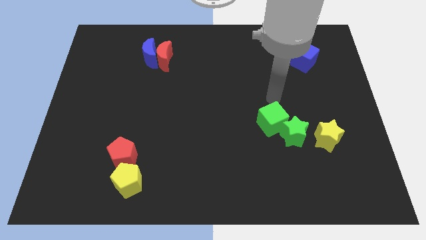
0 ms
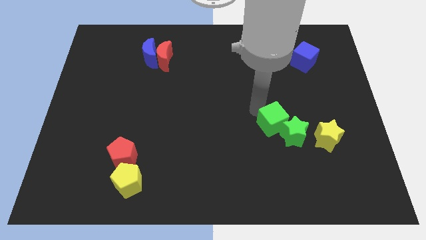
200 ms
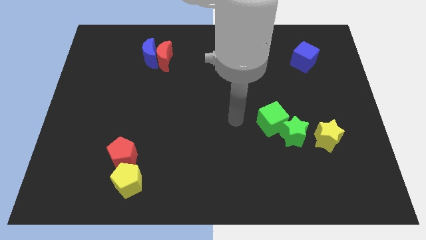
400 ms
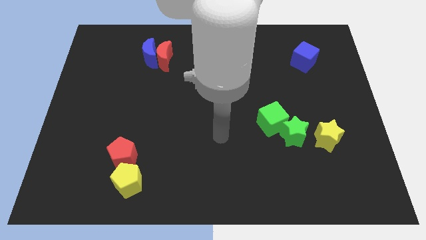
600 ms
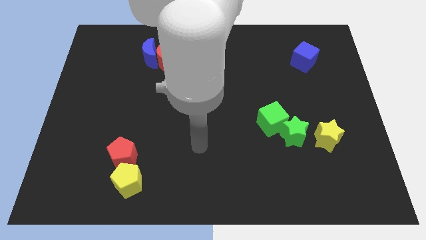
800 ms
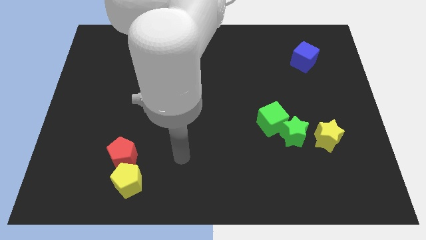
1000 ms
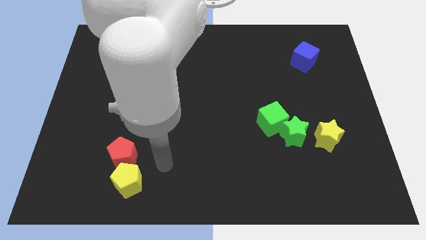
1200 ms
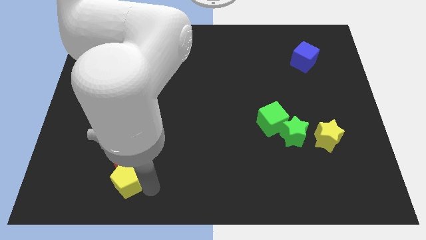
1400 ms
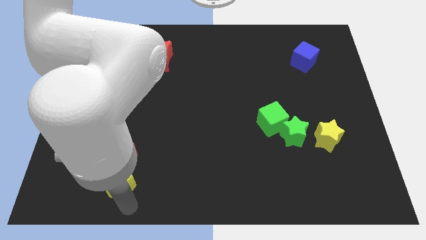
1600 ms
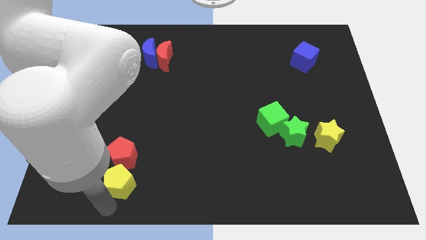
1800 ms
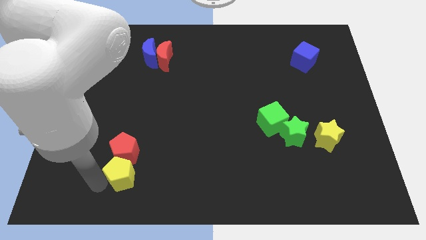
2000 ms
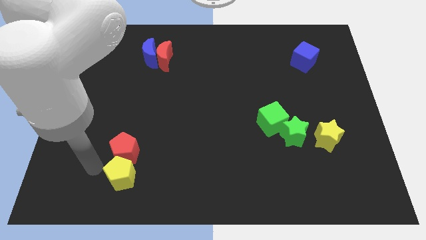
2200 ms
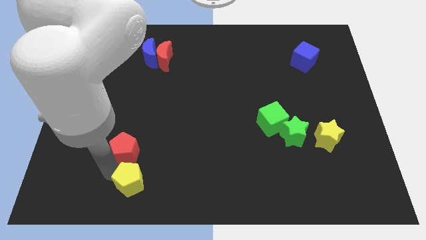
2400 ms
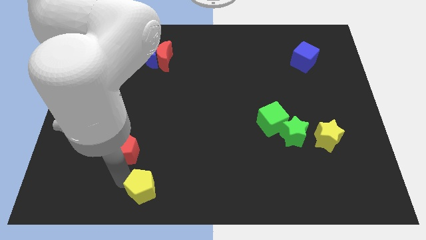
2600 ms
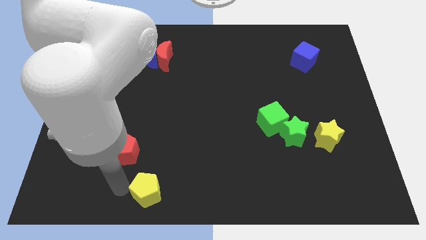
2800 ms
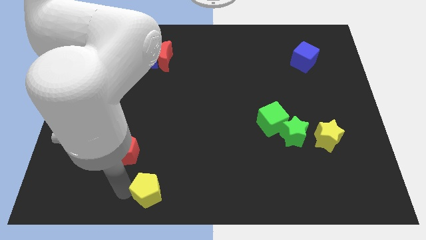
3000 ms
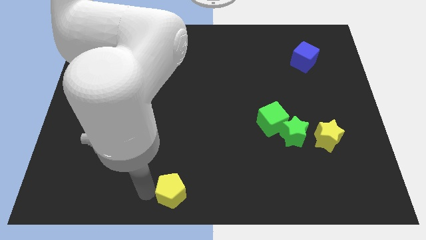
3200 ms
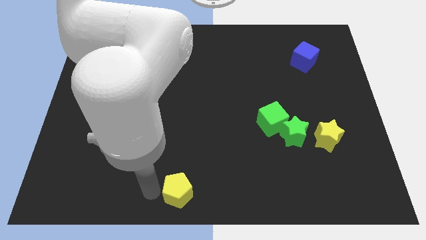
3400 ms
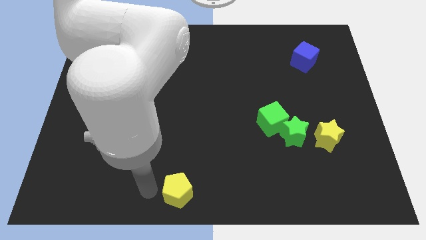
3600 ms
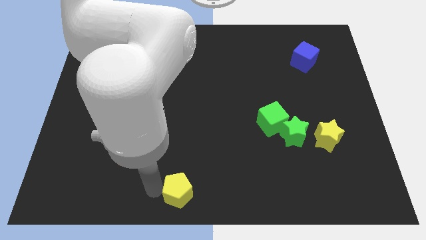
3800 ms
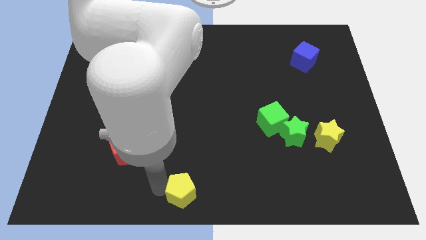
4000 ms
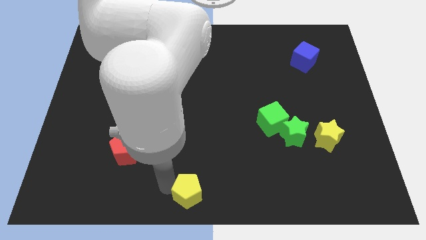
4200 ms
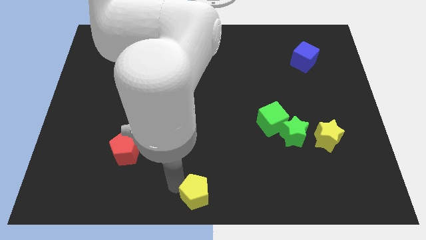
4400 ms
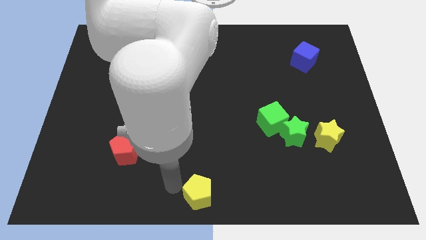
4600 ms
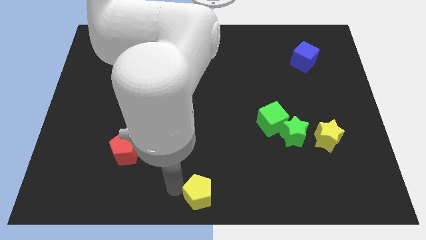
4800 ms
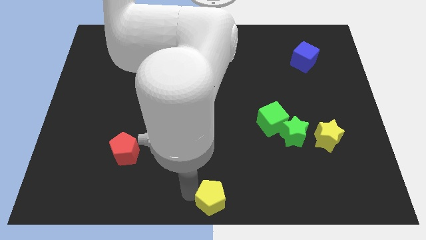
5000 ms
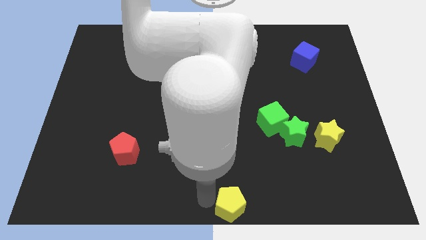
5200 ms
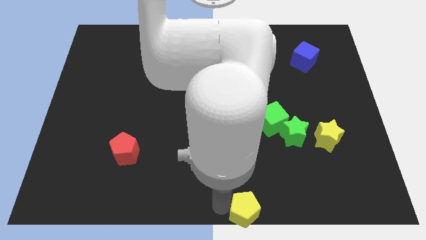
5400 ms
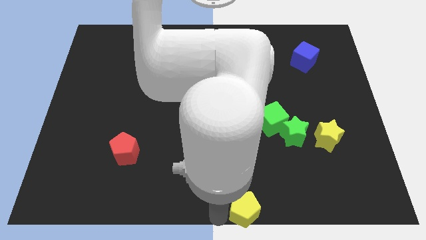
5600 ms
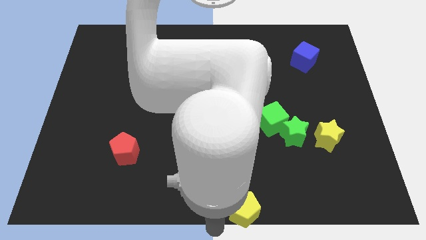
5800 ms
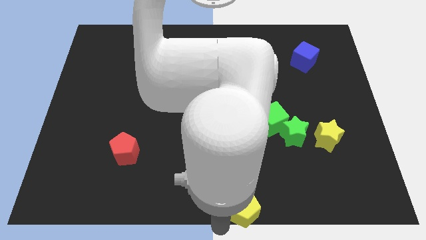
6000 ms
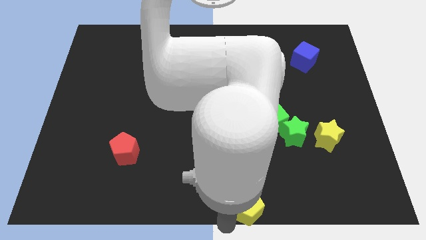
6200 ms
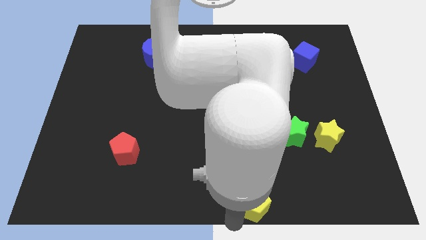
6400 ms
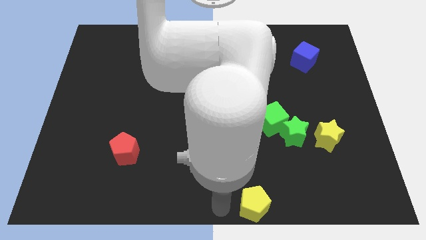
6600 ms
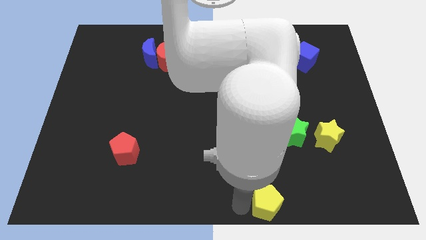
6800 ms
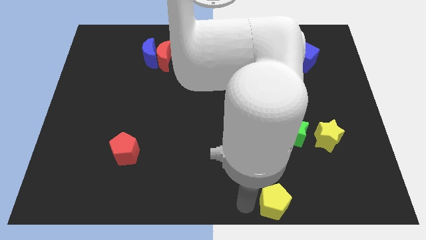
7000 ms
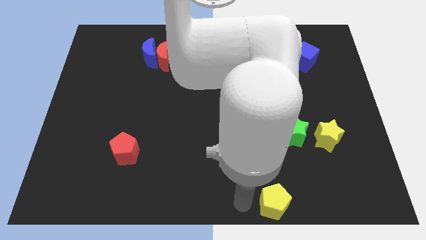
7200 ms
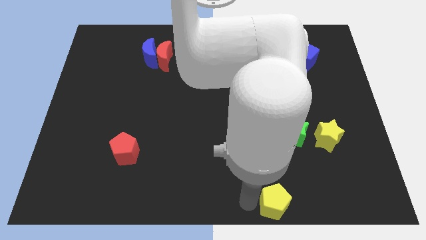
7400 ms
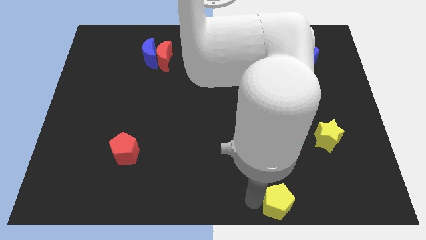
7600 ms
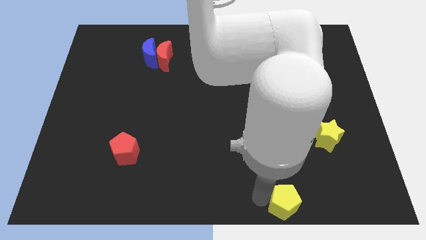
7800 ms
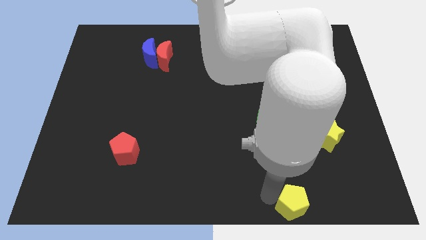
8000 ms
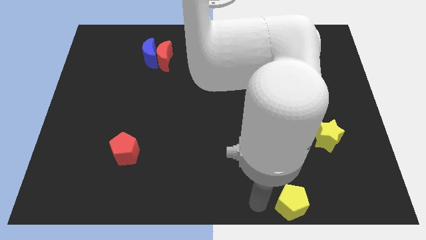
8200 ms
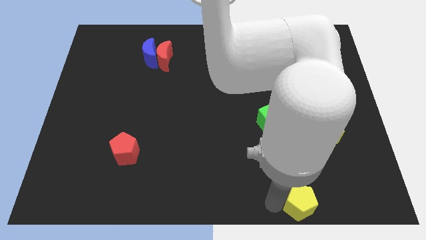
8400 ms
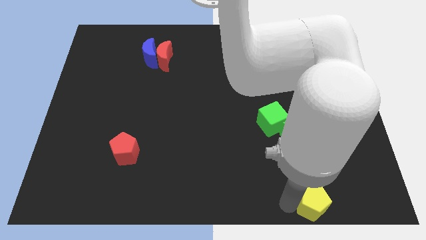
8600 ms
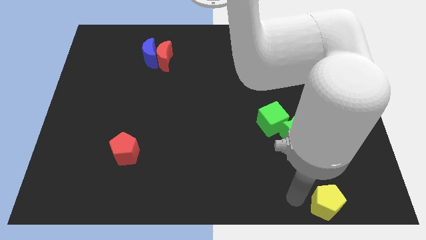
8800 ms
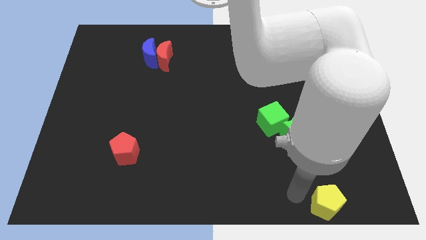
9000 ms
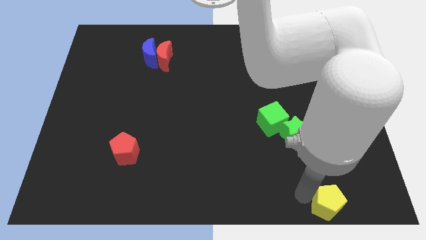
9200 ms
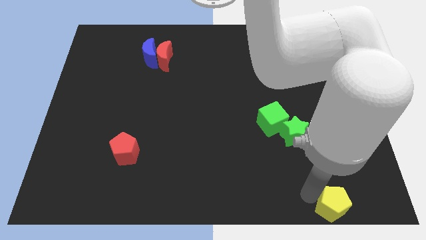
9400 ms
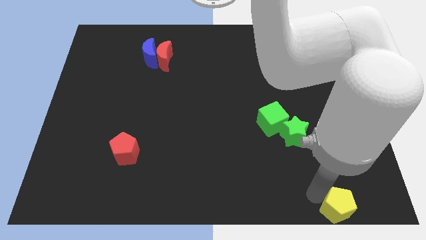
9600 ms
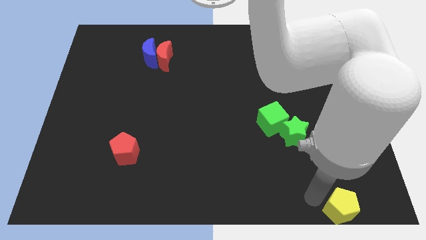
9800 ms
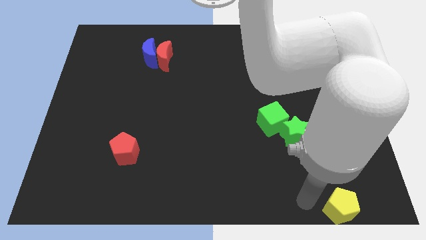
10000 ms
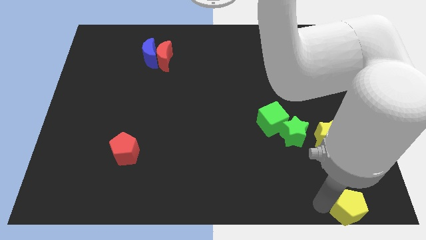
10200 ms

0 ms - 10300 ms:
slide the yellow pentagon to the bottom right

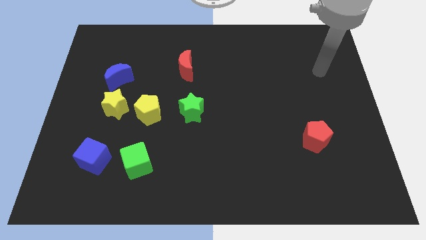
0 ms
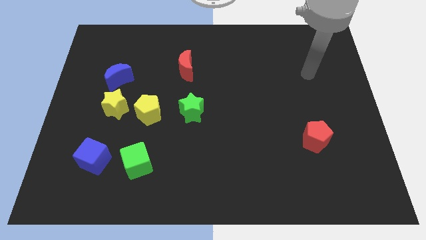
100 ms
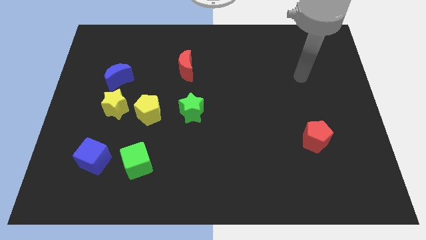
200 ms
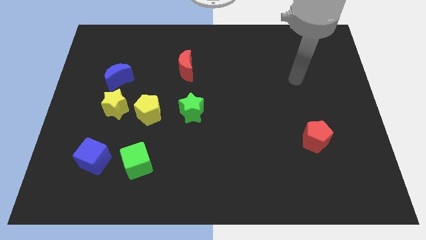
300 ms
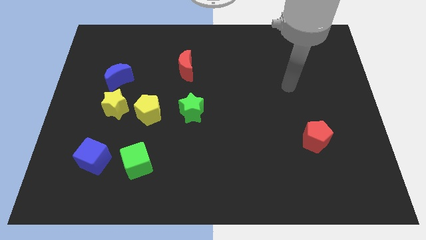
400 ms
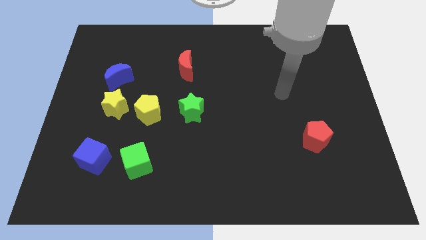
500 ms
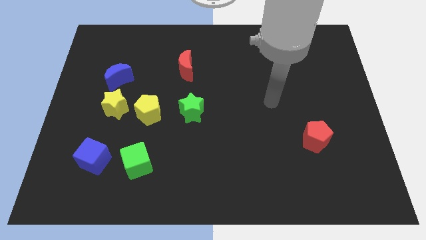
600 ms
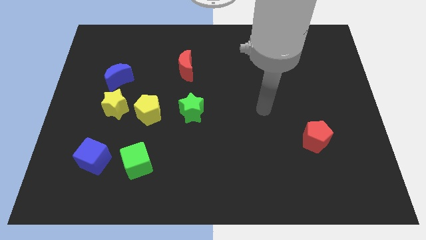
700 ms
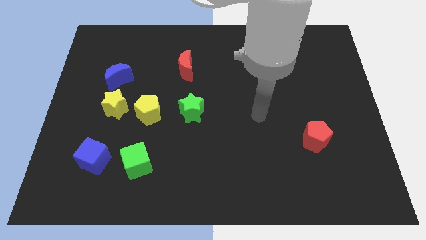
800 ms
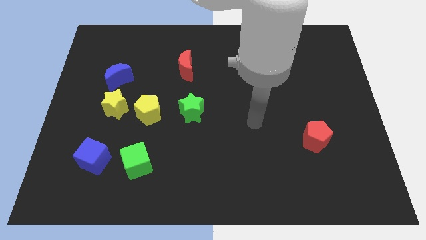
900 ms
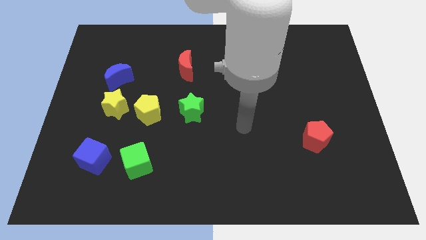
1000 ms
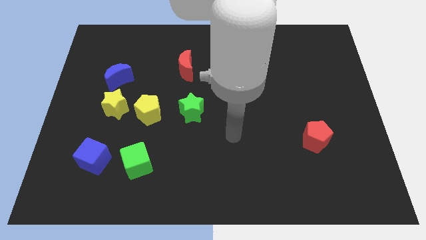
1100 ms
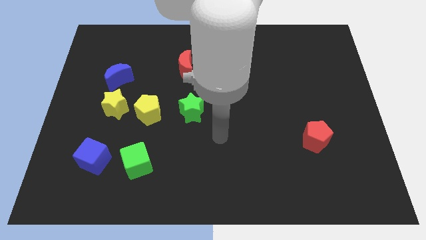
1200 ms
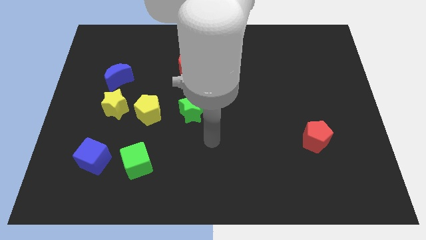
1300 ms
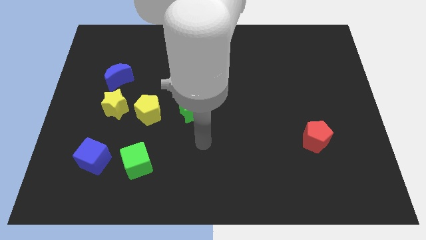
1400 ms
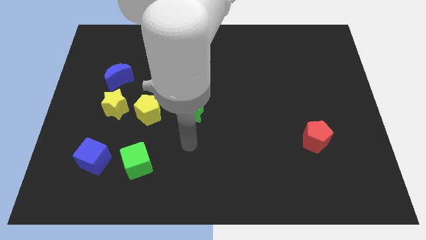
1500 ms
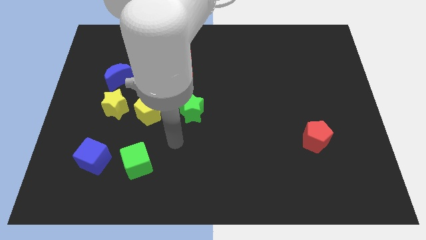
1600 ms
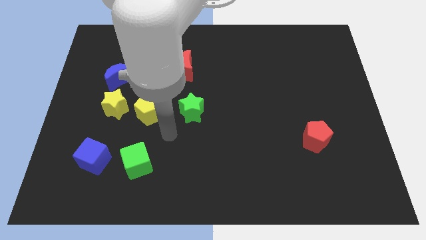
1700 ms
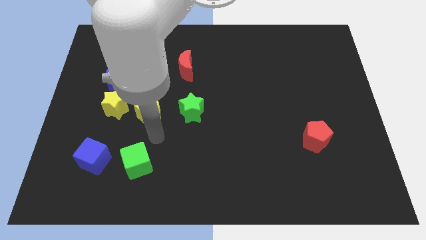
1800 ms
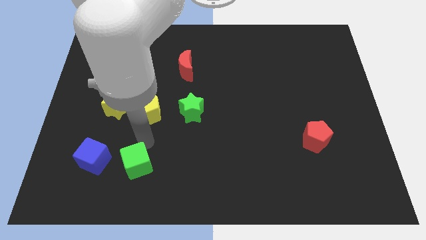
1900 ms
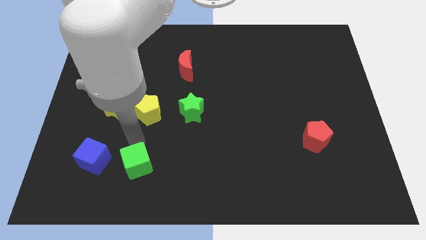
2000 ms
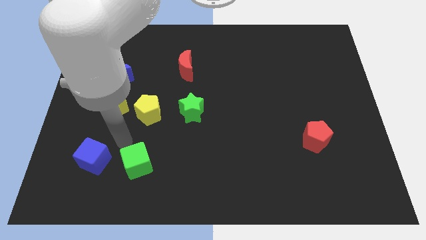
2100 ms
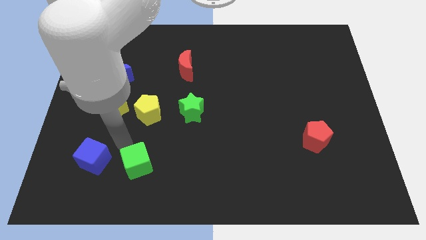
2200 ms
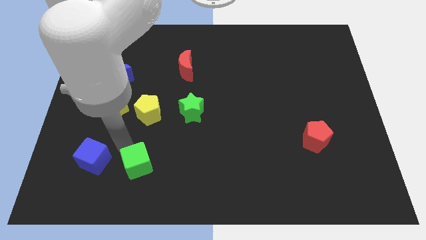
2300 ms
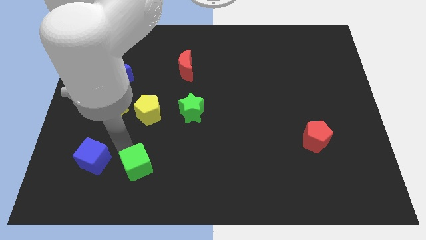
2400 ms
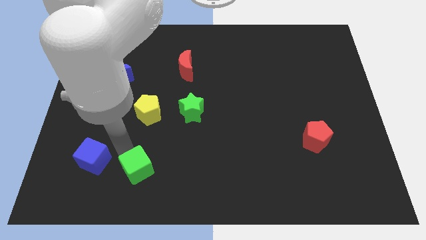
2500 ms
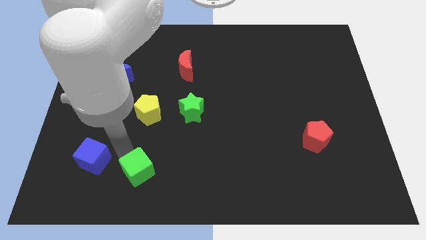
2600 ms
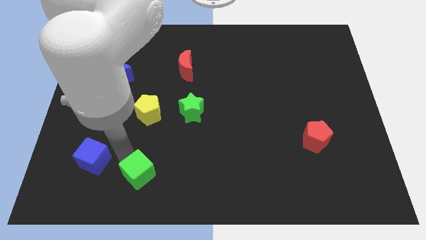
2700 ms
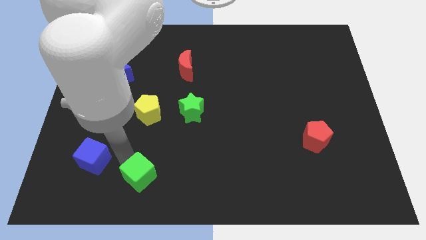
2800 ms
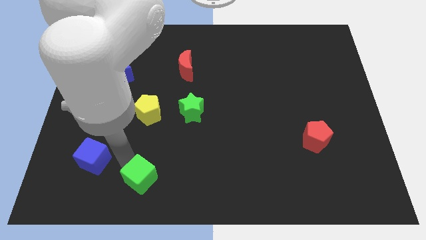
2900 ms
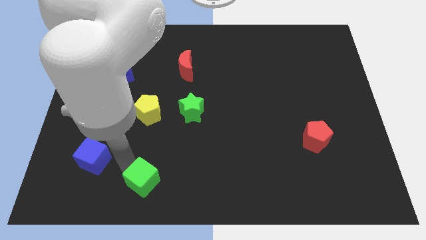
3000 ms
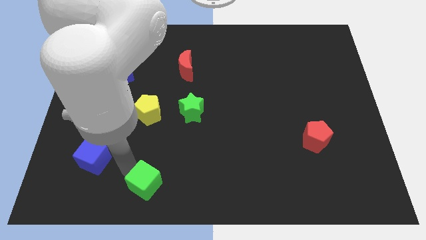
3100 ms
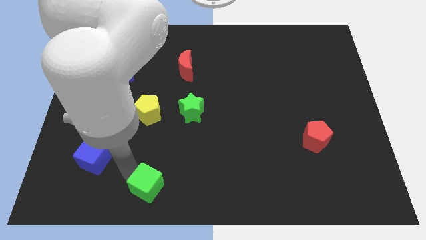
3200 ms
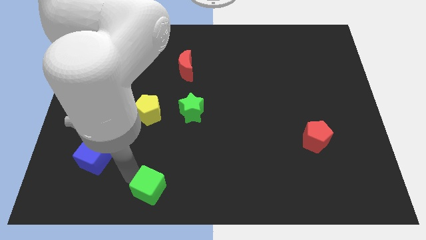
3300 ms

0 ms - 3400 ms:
slide the green cube to the bottom
